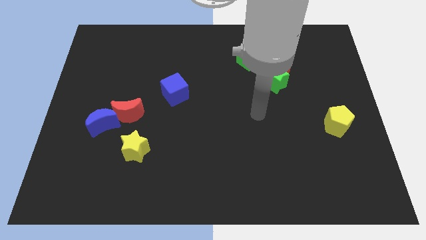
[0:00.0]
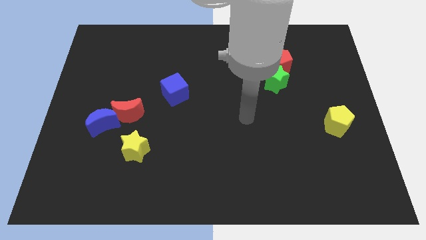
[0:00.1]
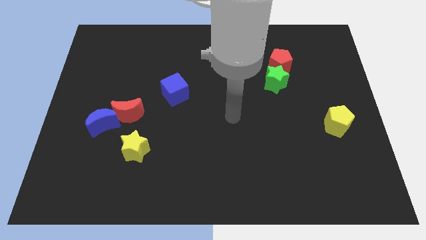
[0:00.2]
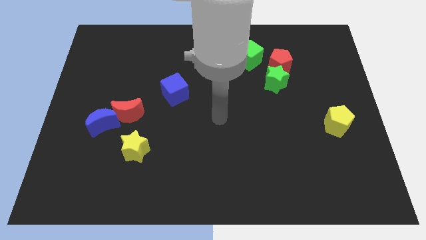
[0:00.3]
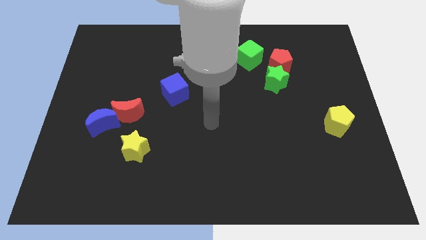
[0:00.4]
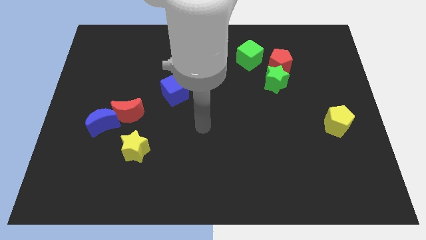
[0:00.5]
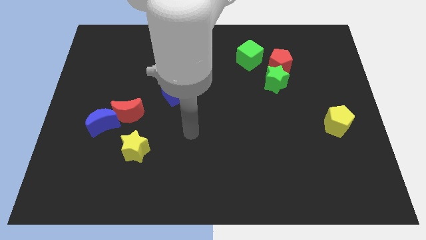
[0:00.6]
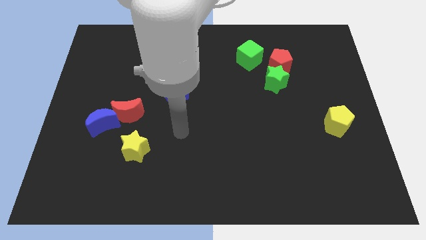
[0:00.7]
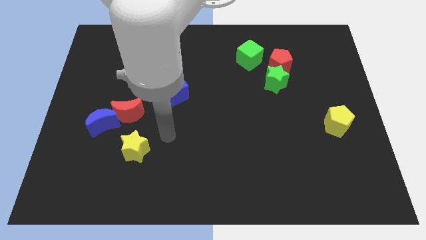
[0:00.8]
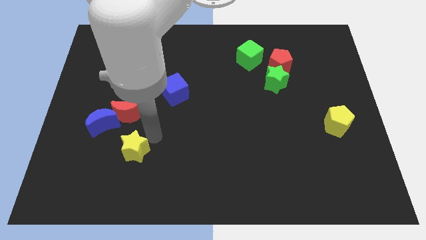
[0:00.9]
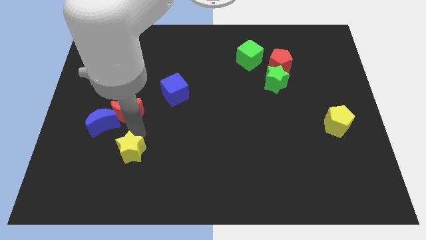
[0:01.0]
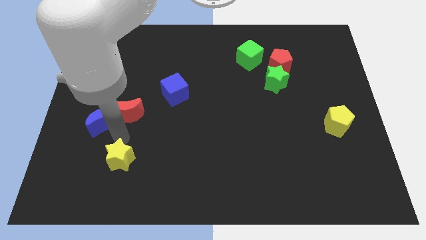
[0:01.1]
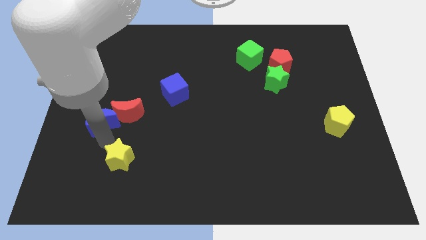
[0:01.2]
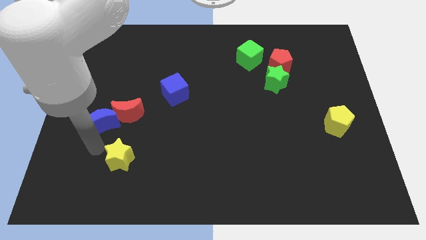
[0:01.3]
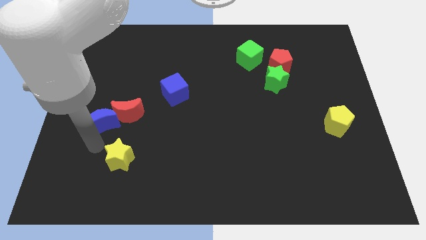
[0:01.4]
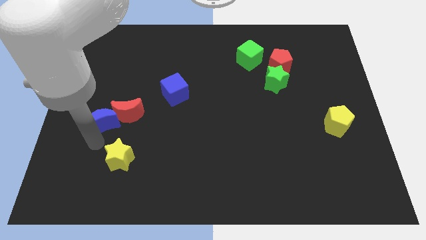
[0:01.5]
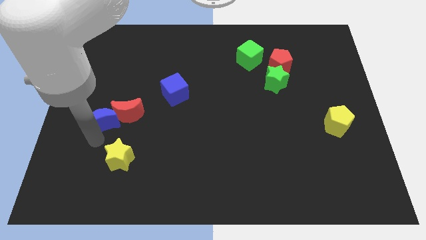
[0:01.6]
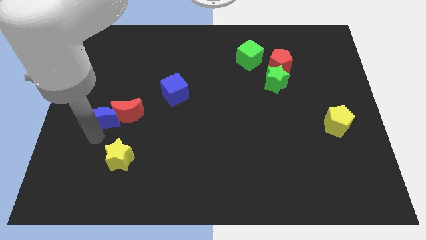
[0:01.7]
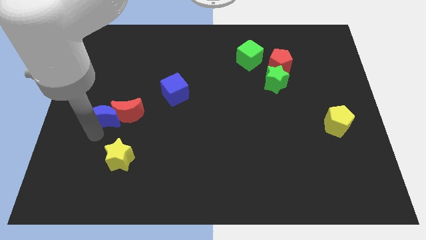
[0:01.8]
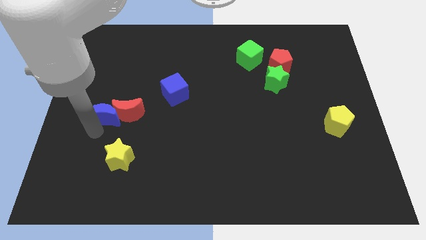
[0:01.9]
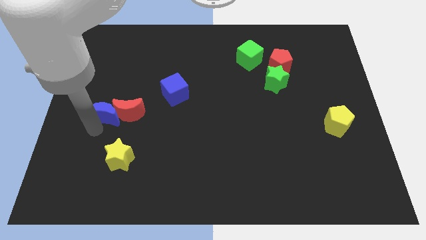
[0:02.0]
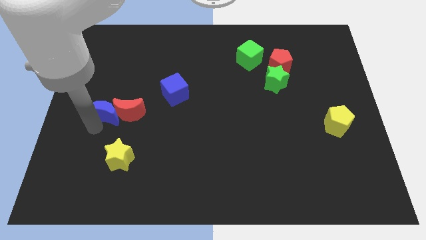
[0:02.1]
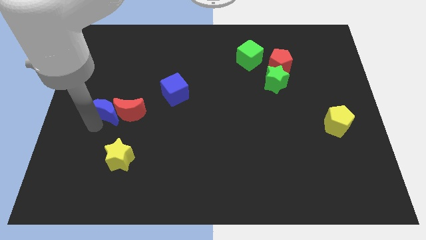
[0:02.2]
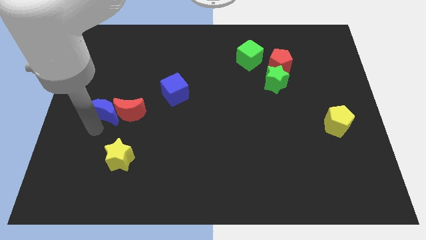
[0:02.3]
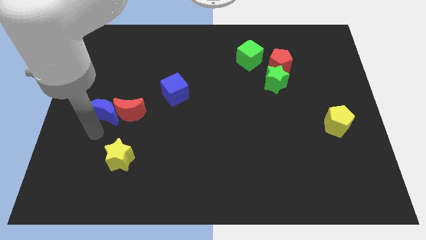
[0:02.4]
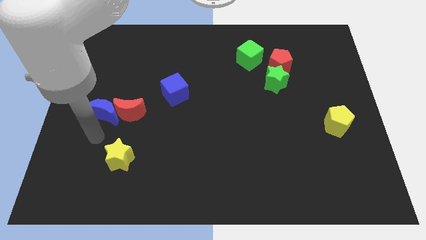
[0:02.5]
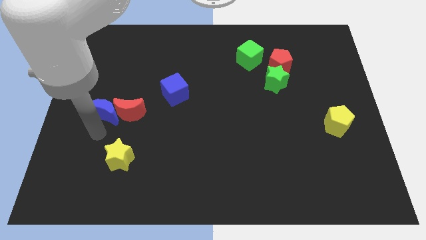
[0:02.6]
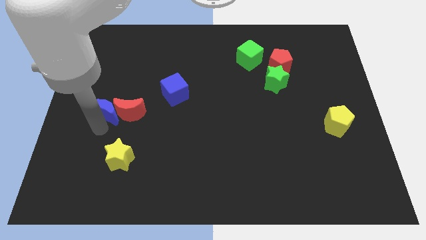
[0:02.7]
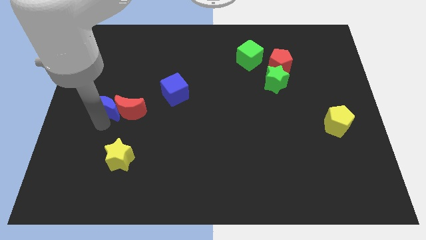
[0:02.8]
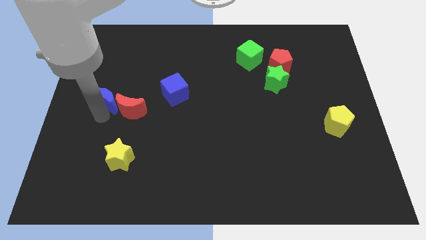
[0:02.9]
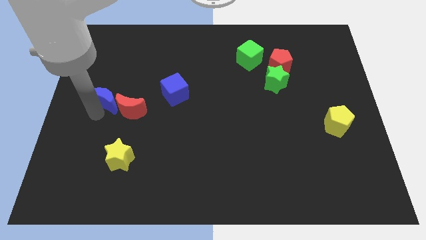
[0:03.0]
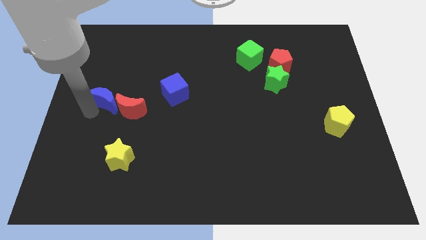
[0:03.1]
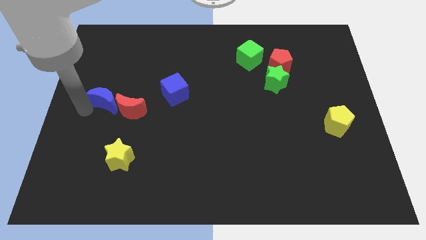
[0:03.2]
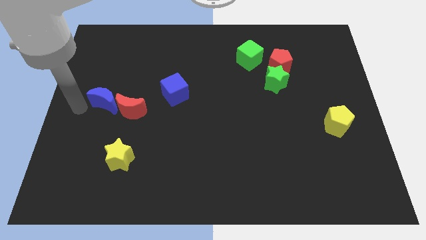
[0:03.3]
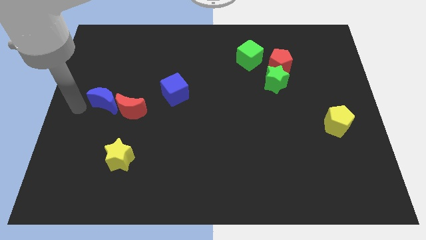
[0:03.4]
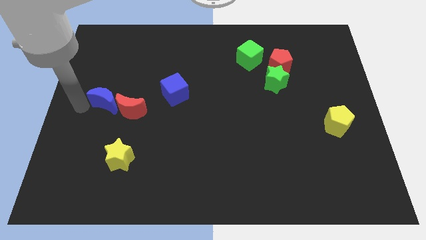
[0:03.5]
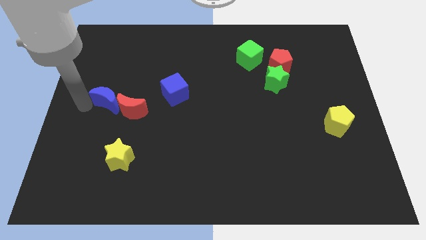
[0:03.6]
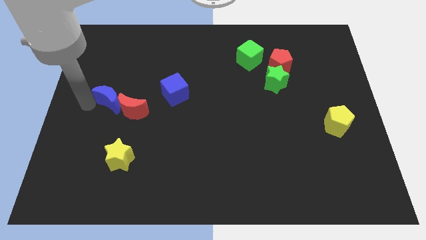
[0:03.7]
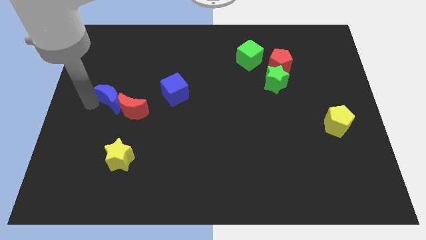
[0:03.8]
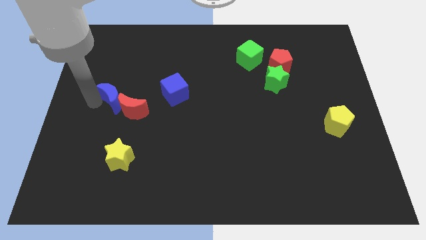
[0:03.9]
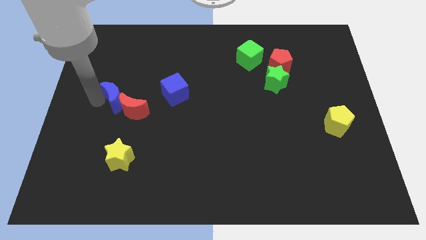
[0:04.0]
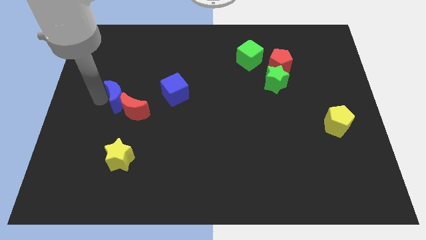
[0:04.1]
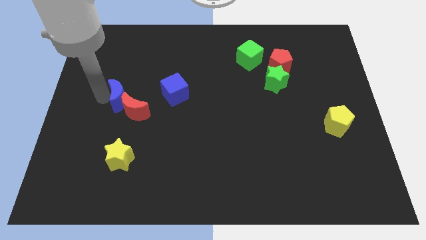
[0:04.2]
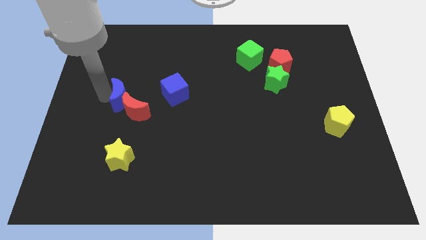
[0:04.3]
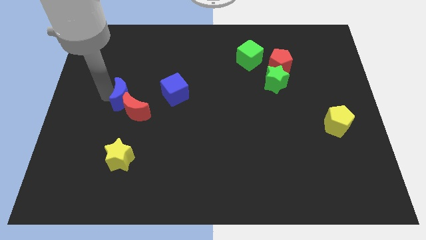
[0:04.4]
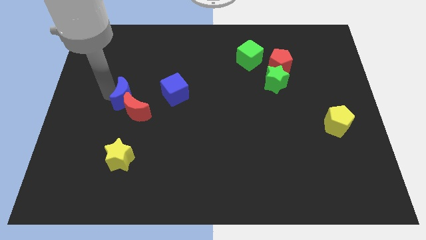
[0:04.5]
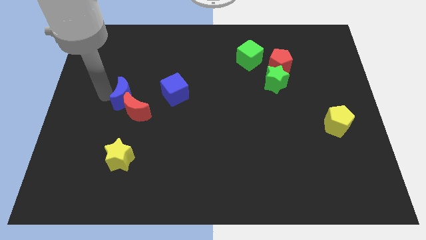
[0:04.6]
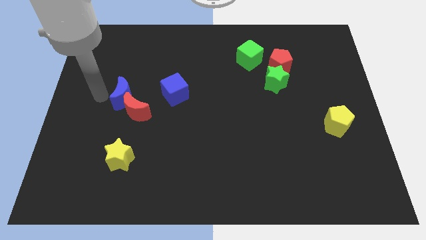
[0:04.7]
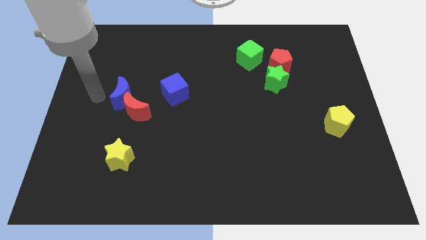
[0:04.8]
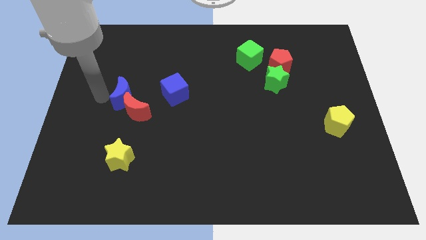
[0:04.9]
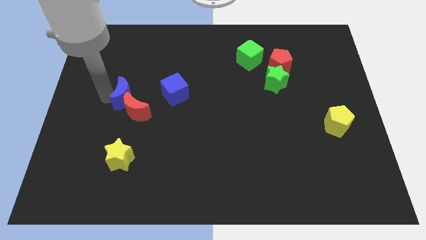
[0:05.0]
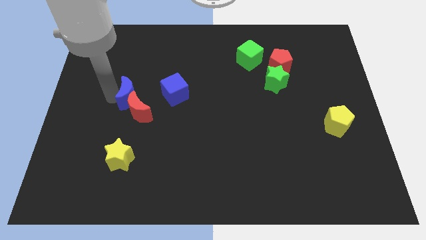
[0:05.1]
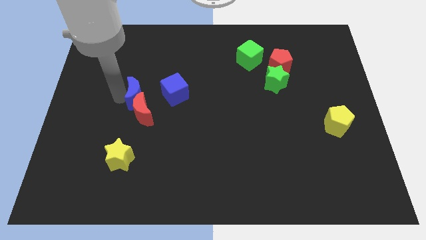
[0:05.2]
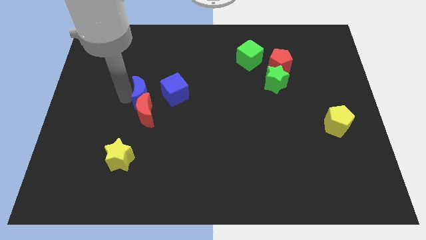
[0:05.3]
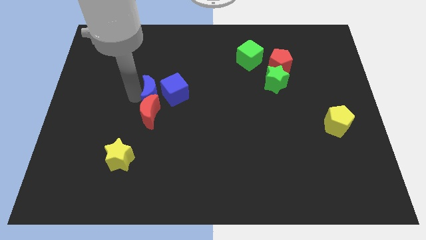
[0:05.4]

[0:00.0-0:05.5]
push the blue moon next to the blue cube

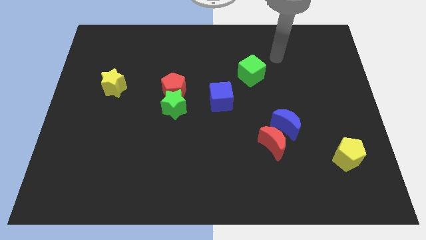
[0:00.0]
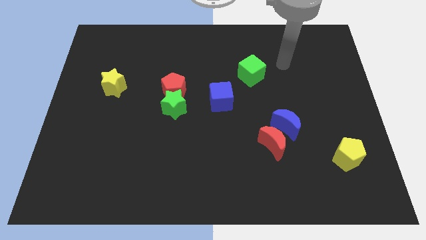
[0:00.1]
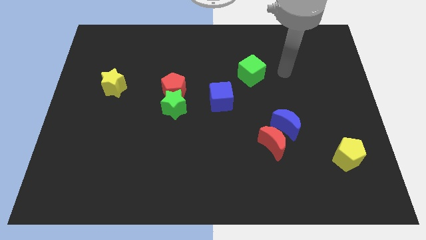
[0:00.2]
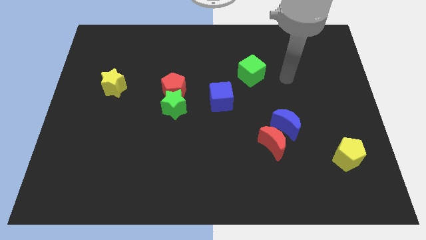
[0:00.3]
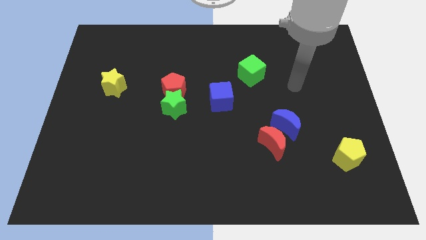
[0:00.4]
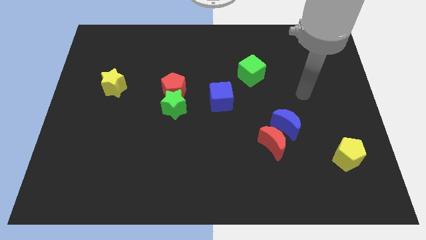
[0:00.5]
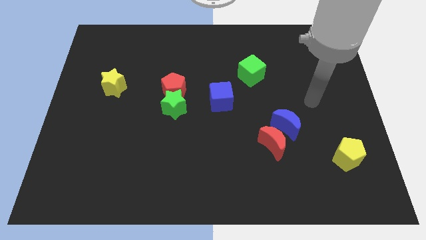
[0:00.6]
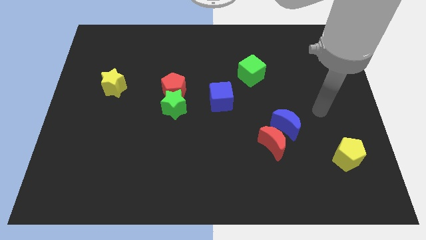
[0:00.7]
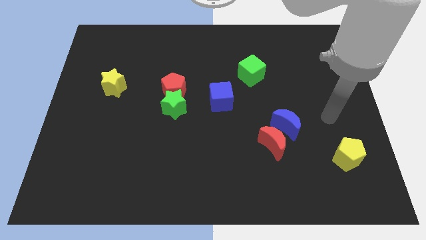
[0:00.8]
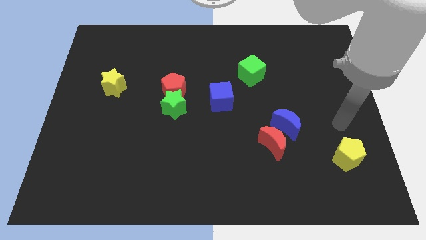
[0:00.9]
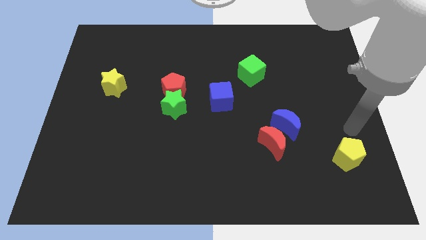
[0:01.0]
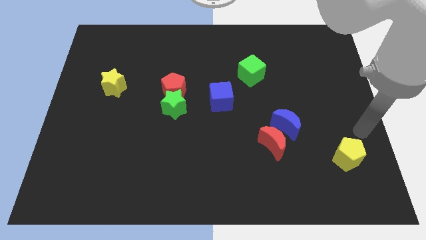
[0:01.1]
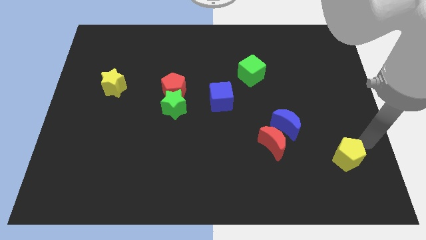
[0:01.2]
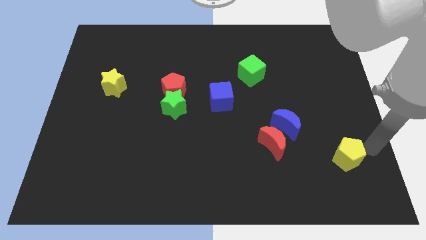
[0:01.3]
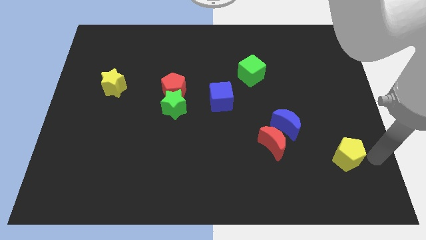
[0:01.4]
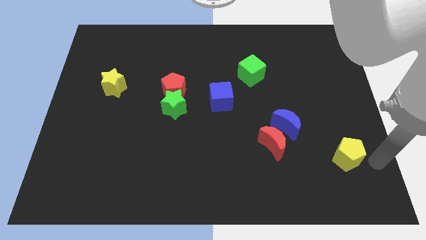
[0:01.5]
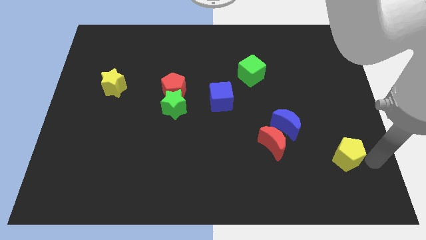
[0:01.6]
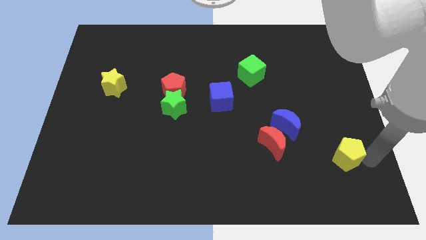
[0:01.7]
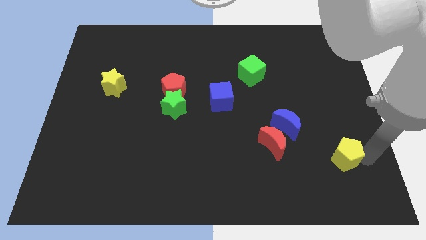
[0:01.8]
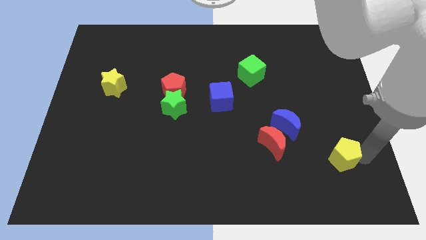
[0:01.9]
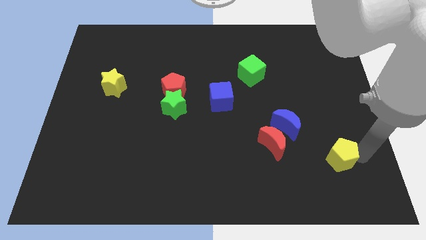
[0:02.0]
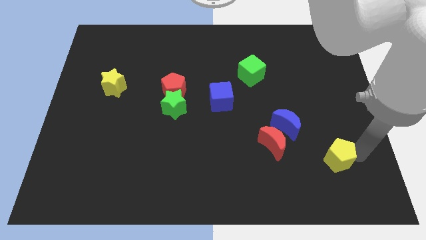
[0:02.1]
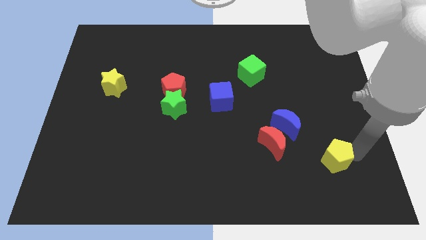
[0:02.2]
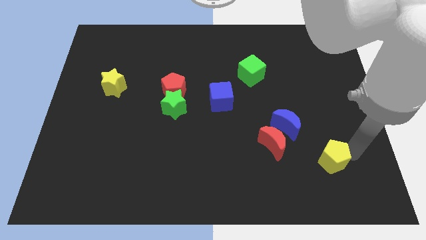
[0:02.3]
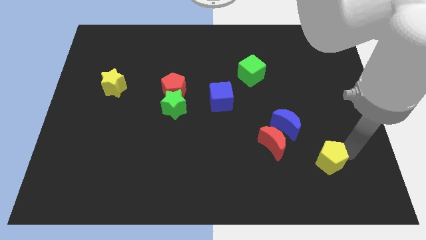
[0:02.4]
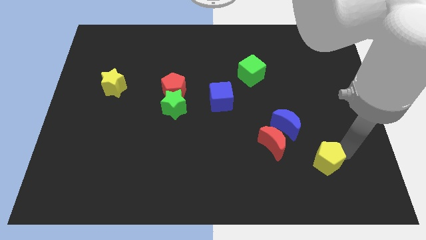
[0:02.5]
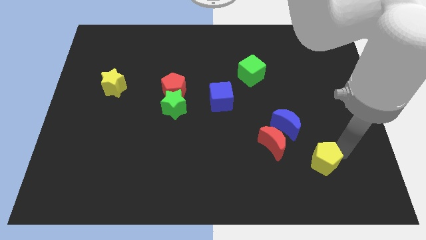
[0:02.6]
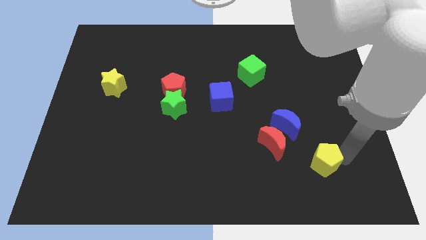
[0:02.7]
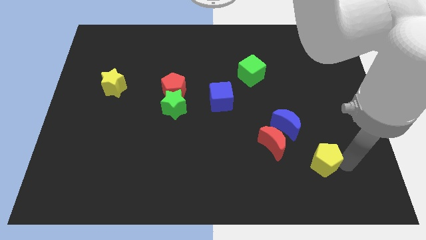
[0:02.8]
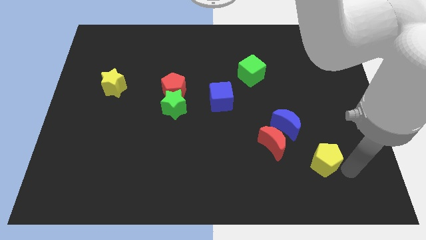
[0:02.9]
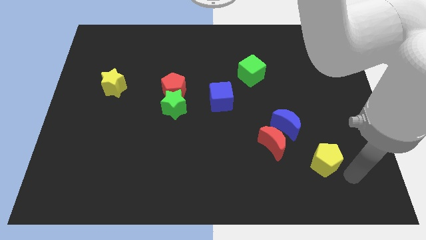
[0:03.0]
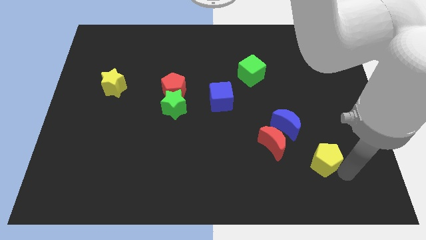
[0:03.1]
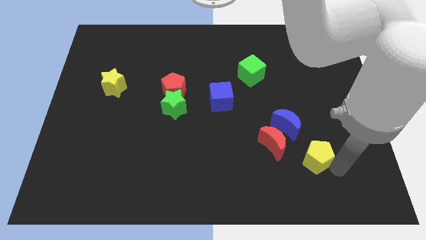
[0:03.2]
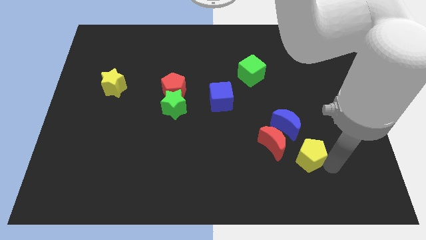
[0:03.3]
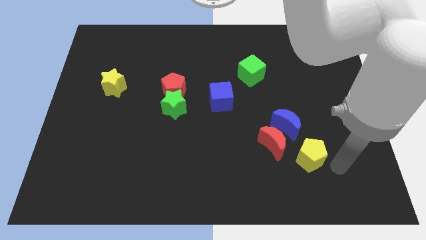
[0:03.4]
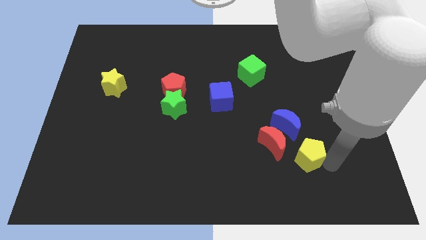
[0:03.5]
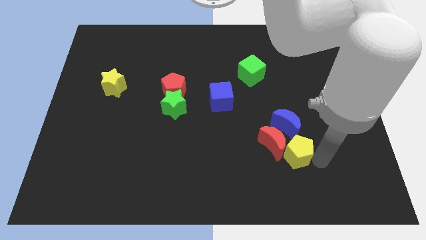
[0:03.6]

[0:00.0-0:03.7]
put the yellow pentagon towards the red moon
